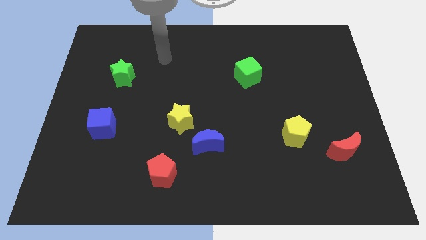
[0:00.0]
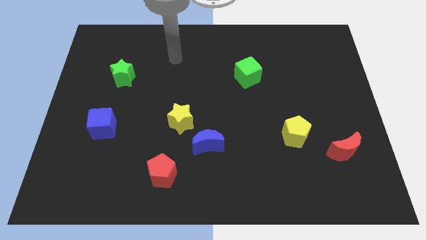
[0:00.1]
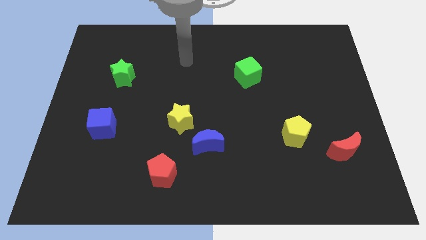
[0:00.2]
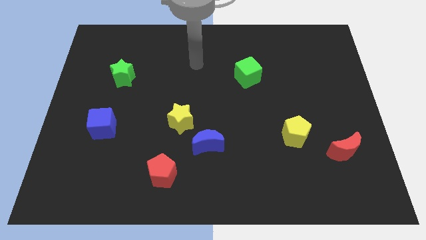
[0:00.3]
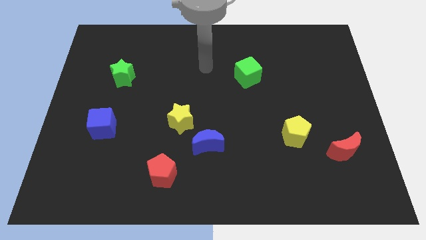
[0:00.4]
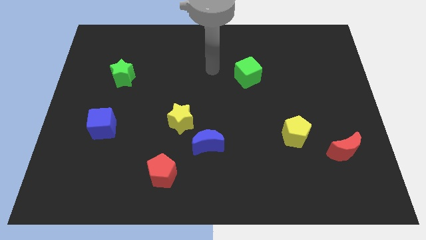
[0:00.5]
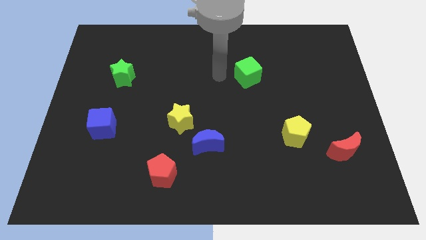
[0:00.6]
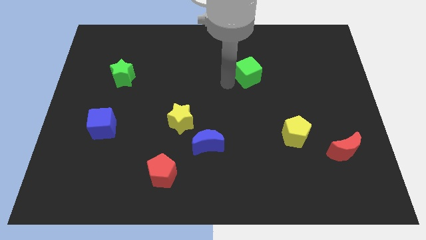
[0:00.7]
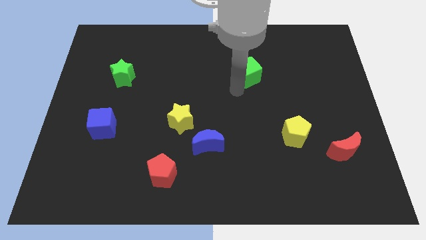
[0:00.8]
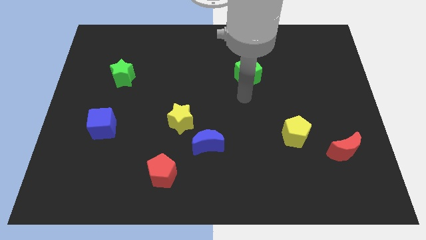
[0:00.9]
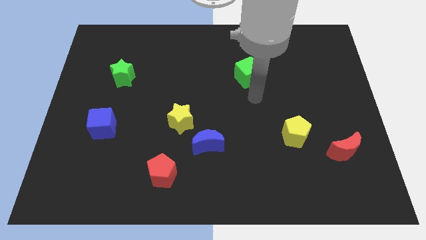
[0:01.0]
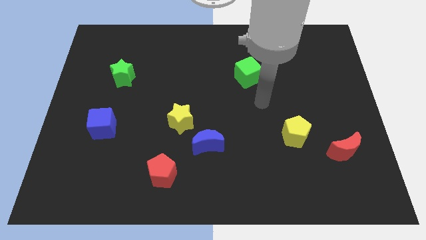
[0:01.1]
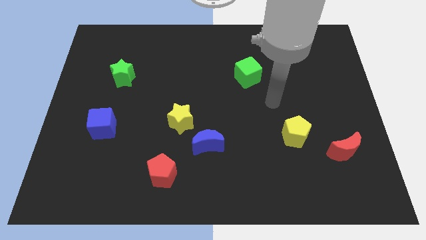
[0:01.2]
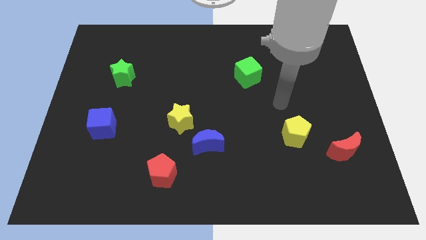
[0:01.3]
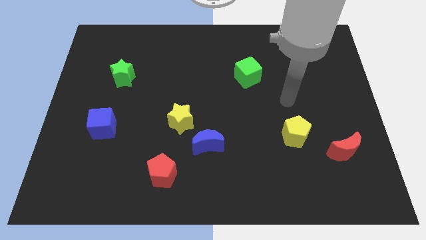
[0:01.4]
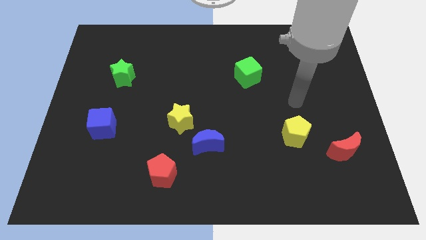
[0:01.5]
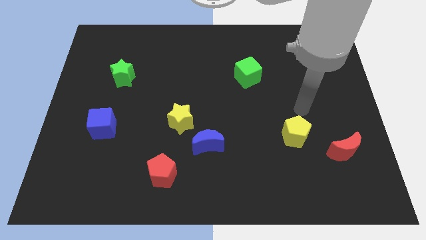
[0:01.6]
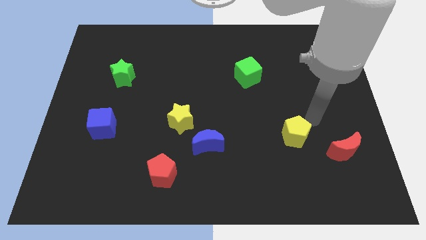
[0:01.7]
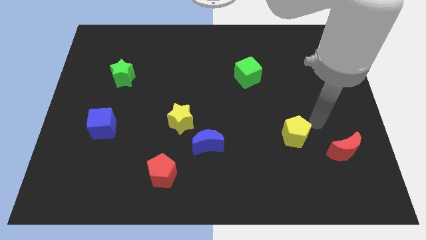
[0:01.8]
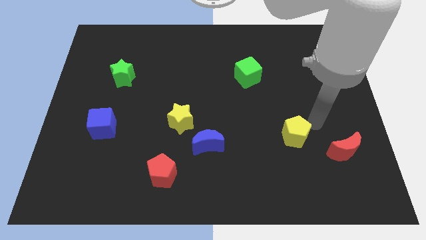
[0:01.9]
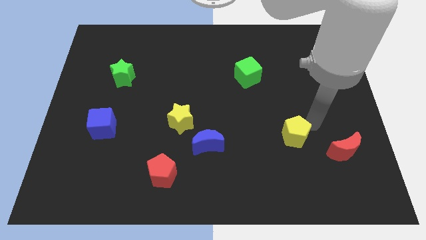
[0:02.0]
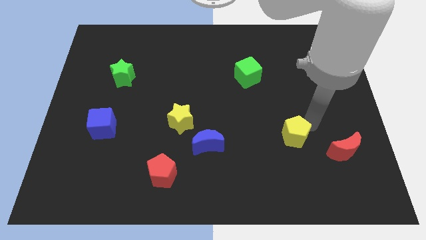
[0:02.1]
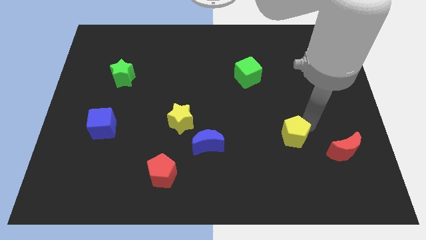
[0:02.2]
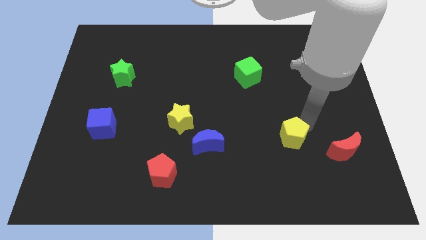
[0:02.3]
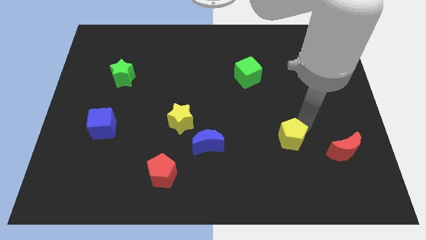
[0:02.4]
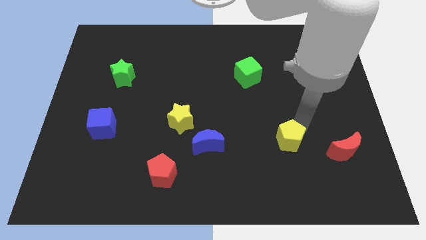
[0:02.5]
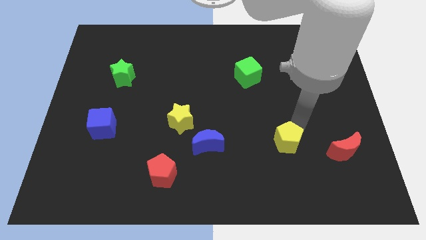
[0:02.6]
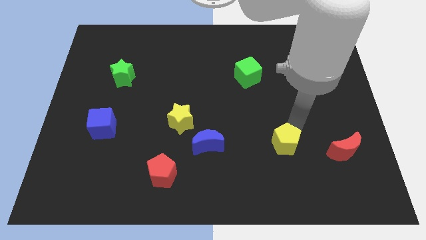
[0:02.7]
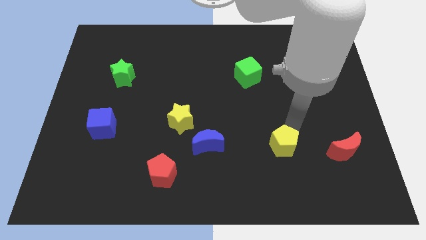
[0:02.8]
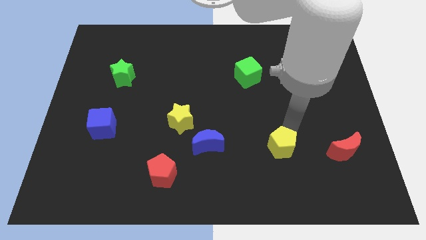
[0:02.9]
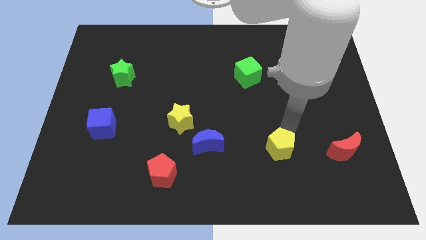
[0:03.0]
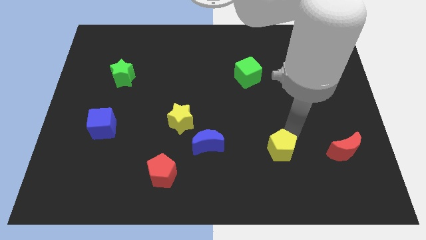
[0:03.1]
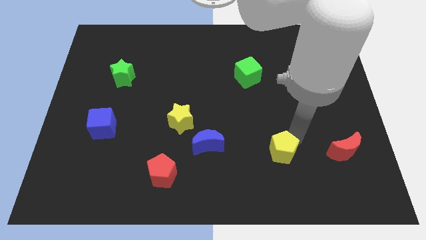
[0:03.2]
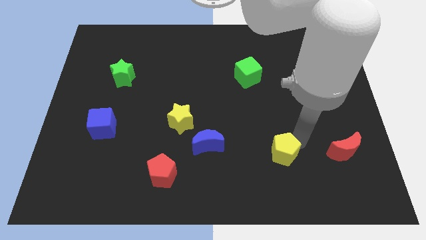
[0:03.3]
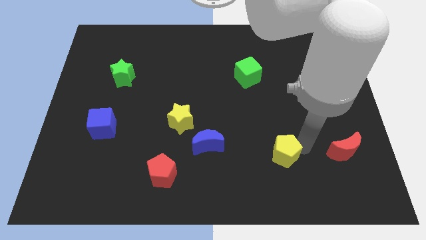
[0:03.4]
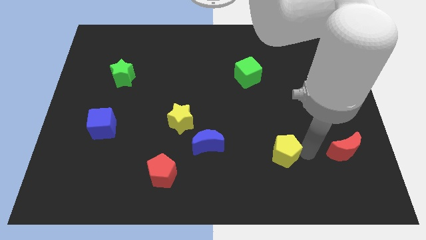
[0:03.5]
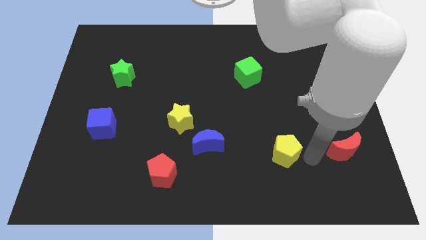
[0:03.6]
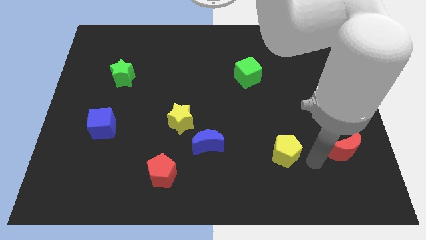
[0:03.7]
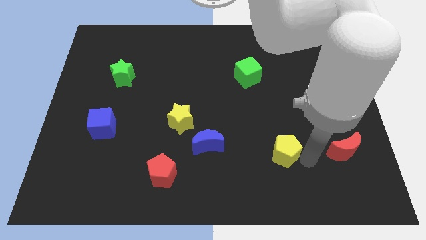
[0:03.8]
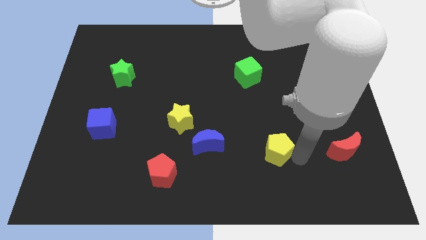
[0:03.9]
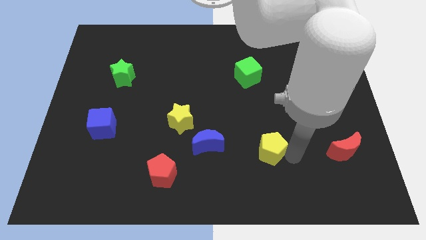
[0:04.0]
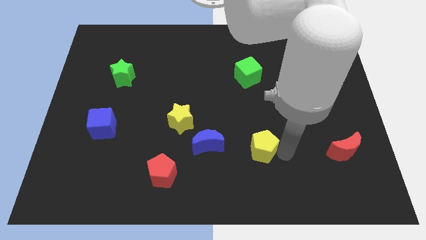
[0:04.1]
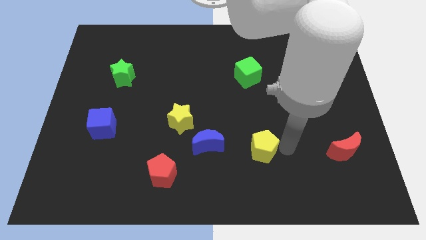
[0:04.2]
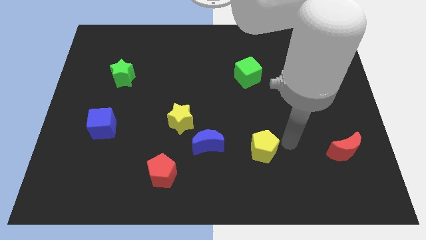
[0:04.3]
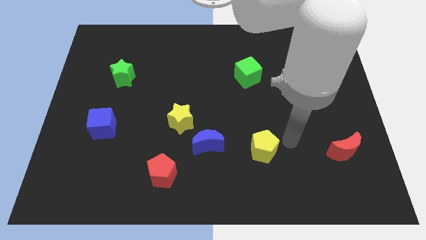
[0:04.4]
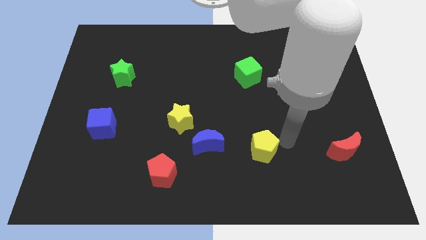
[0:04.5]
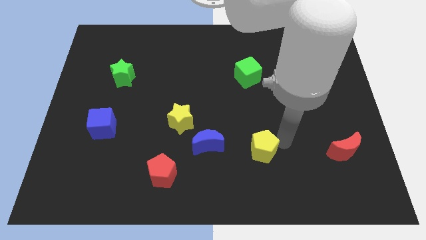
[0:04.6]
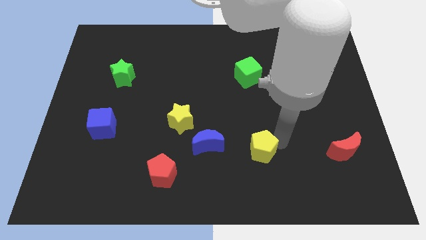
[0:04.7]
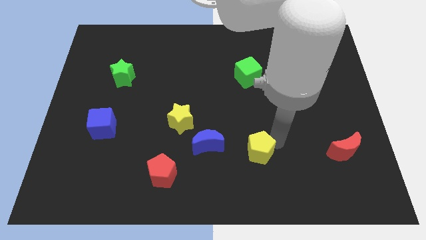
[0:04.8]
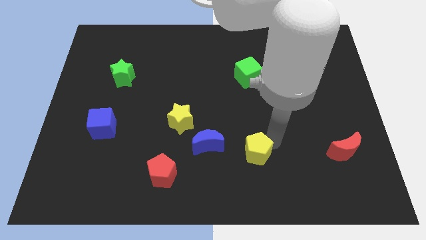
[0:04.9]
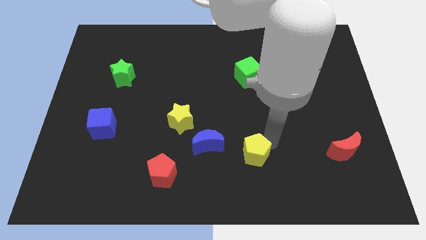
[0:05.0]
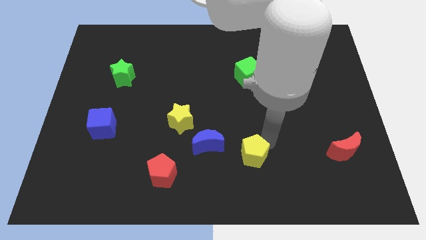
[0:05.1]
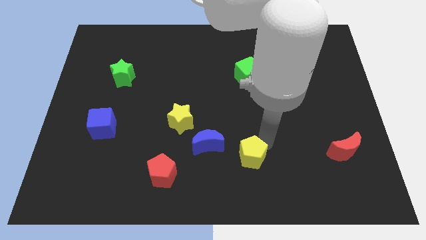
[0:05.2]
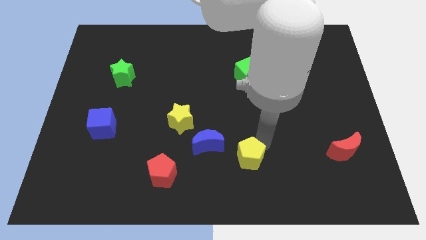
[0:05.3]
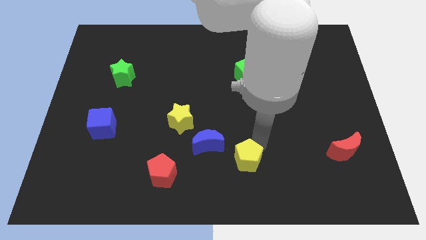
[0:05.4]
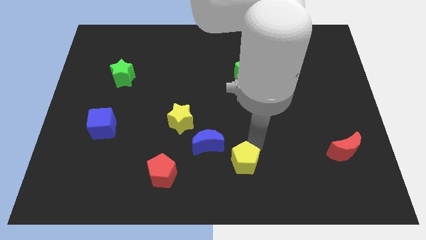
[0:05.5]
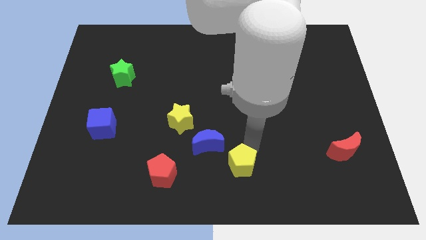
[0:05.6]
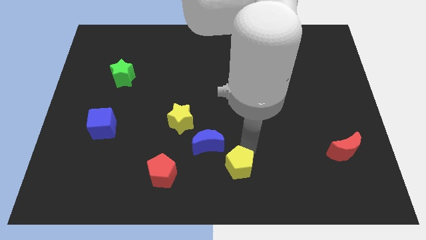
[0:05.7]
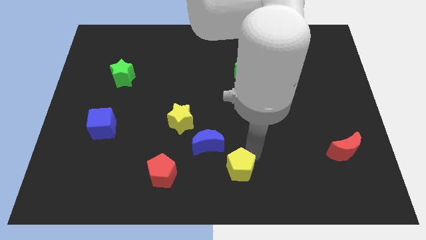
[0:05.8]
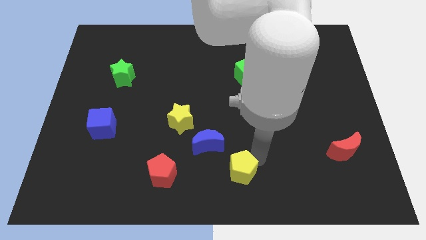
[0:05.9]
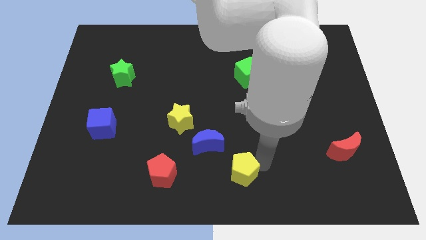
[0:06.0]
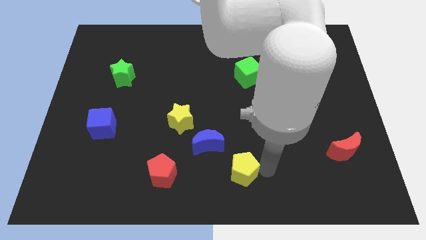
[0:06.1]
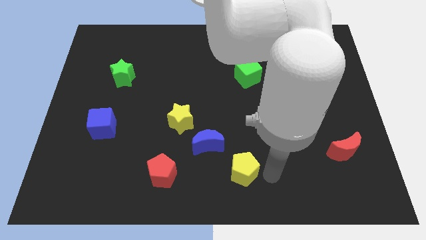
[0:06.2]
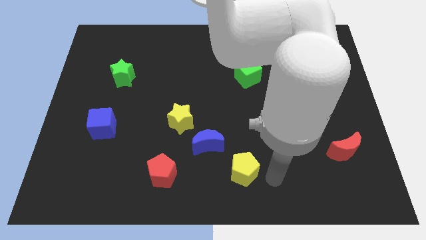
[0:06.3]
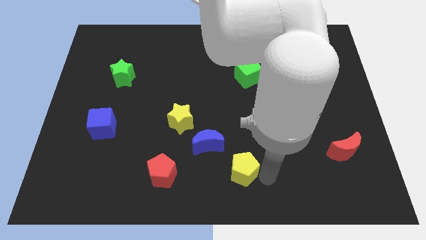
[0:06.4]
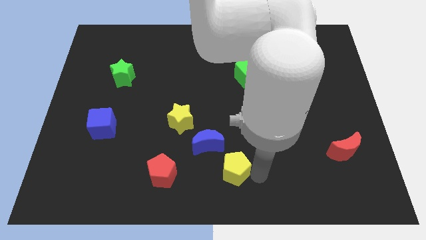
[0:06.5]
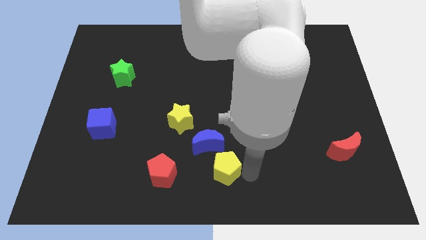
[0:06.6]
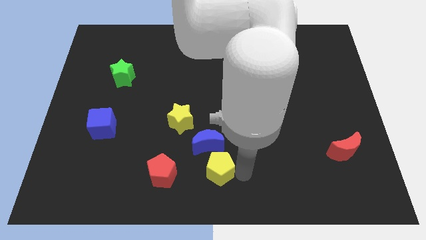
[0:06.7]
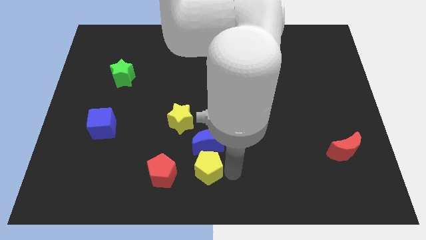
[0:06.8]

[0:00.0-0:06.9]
put the yellow pentagon to the bottom left of the blue moon
